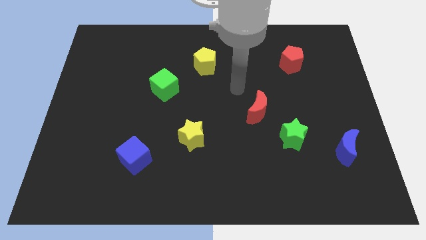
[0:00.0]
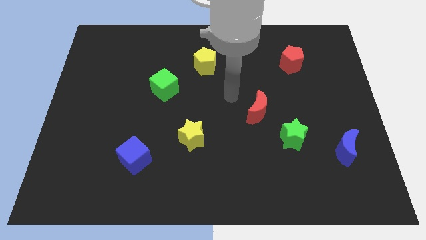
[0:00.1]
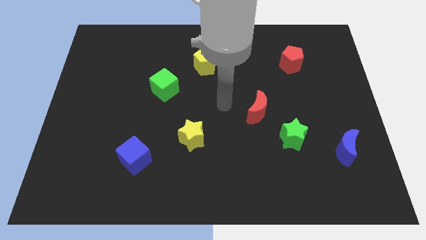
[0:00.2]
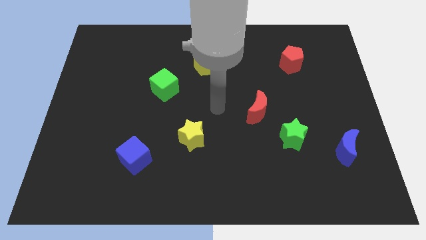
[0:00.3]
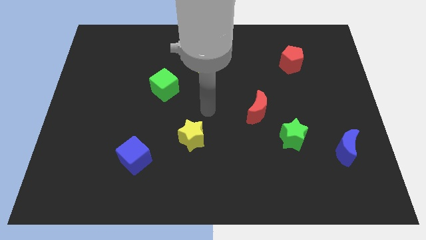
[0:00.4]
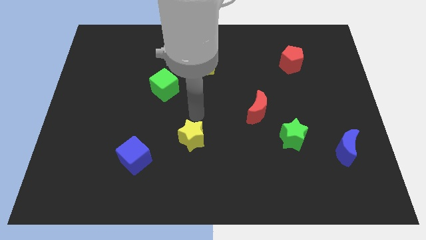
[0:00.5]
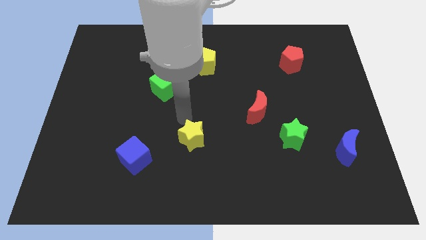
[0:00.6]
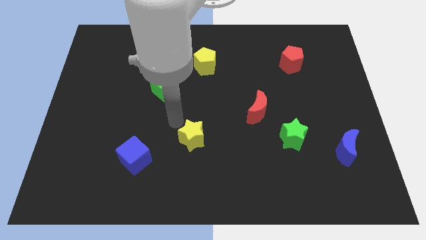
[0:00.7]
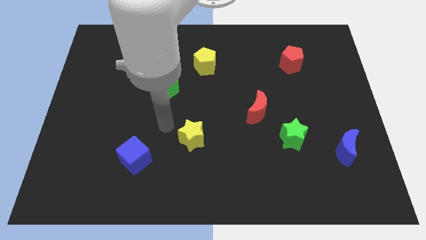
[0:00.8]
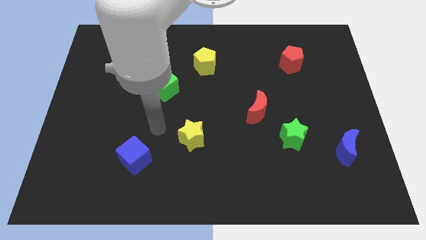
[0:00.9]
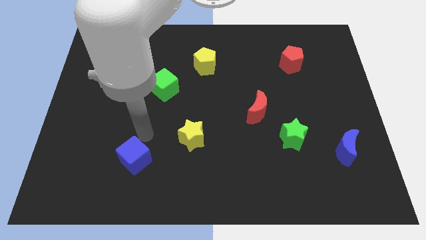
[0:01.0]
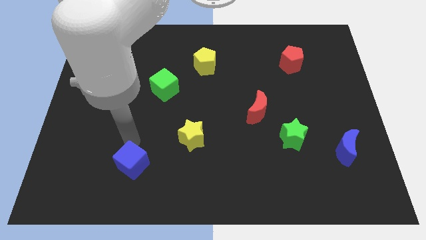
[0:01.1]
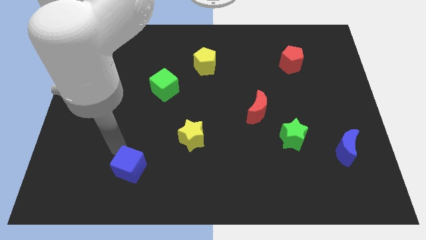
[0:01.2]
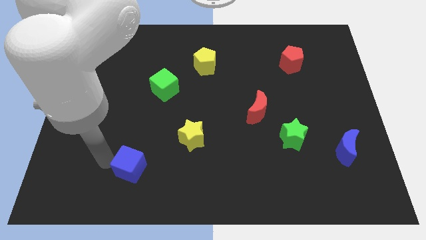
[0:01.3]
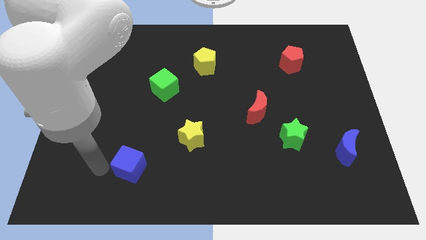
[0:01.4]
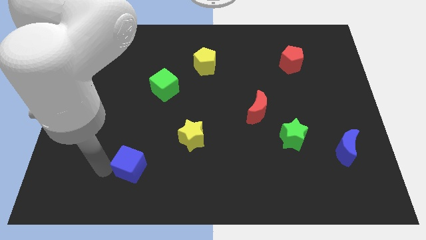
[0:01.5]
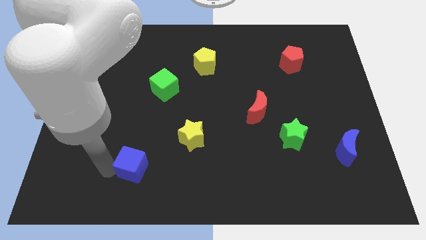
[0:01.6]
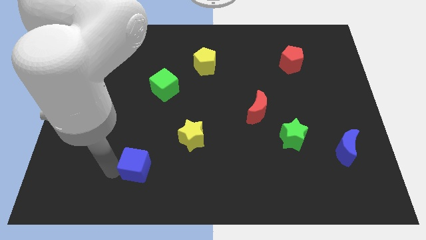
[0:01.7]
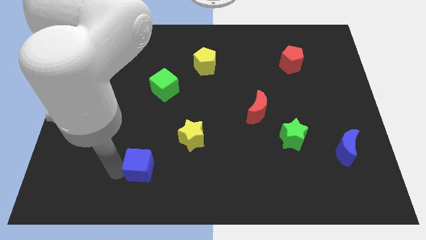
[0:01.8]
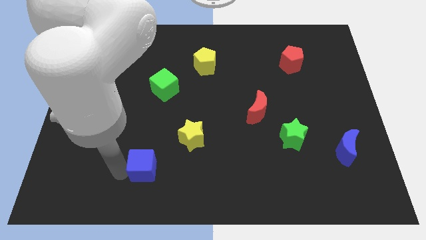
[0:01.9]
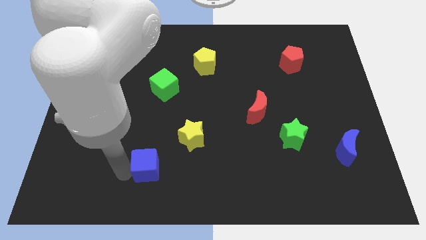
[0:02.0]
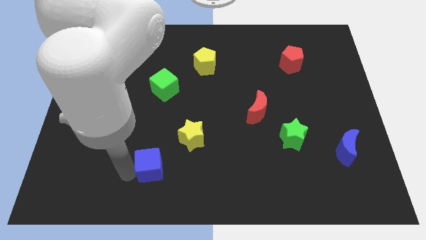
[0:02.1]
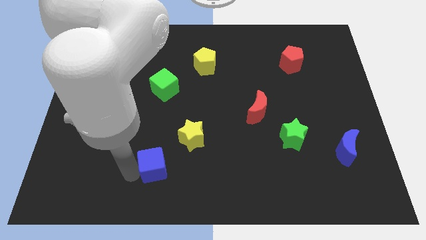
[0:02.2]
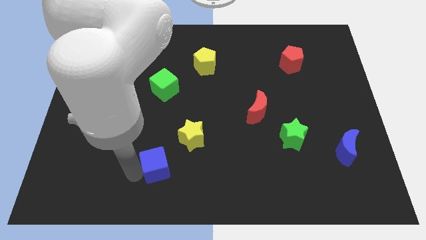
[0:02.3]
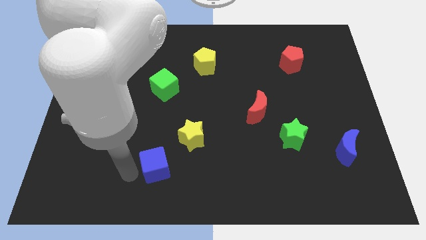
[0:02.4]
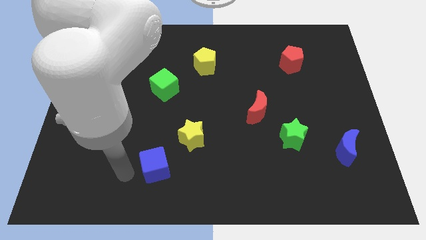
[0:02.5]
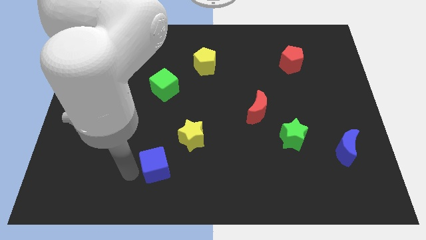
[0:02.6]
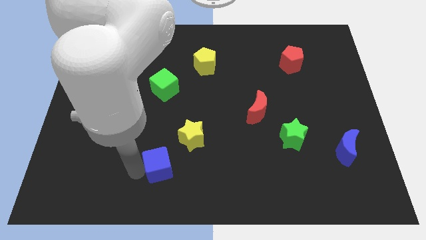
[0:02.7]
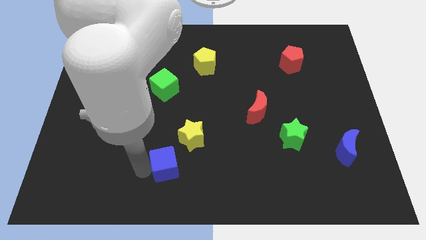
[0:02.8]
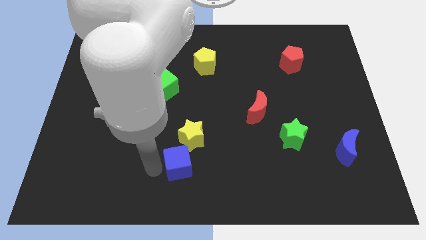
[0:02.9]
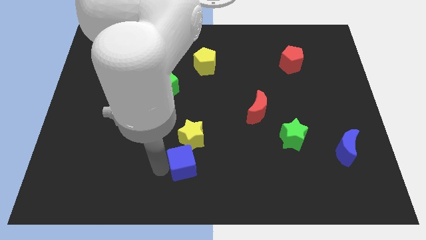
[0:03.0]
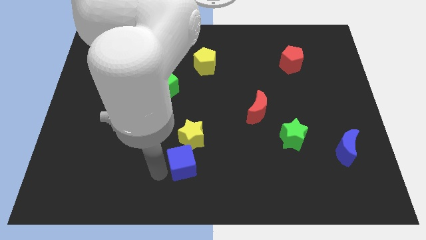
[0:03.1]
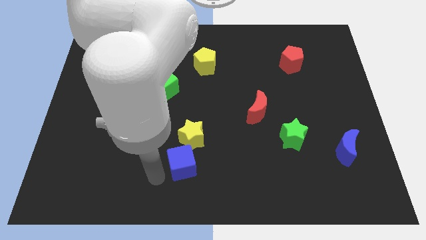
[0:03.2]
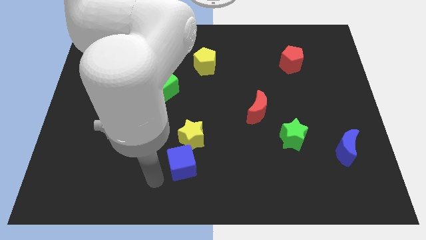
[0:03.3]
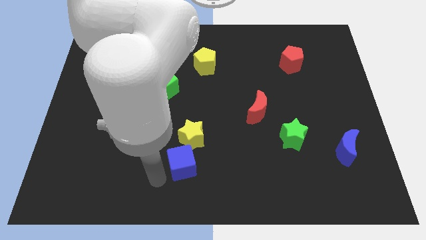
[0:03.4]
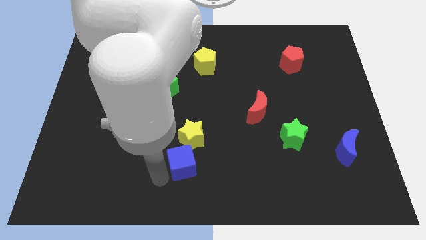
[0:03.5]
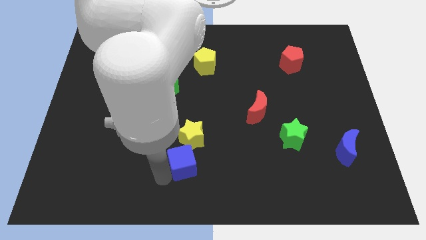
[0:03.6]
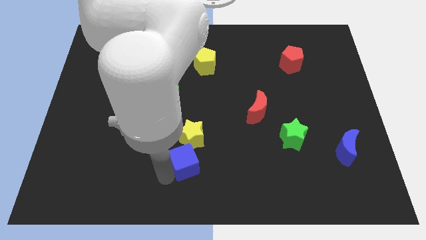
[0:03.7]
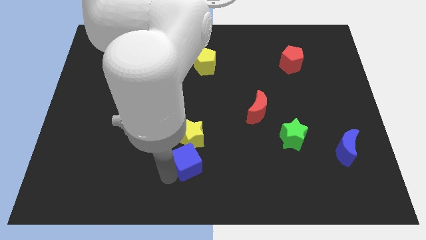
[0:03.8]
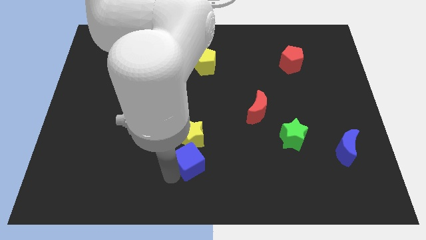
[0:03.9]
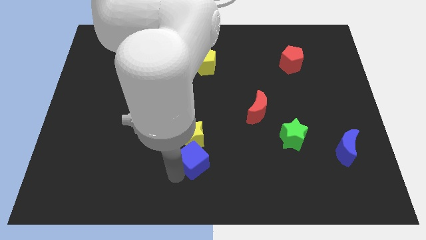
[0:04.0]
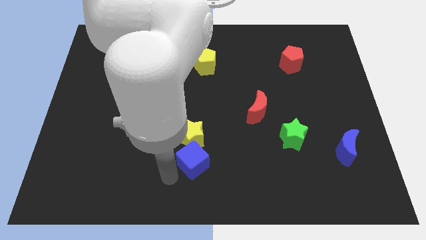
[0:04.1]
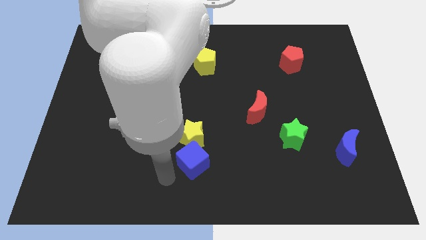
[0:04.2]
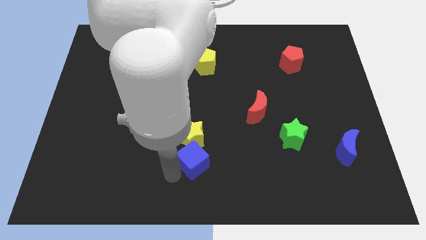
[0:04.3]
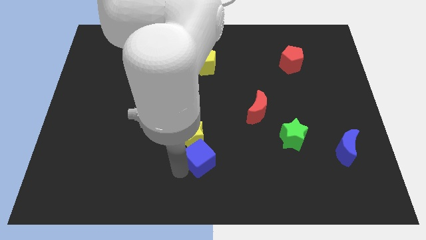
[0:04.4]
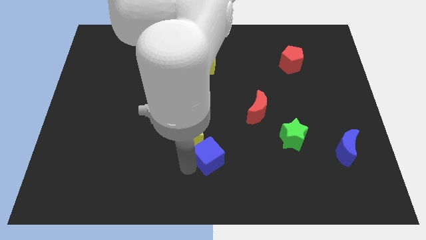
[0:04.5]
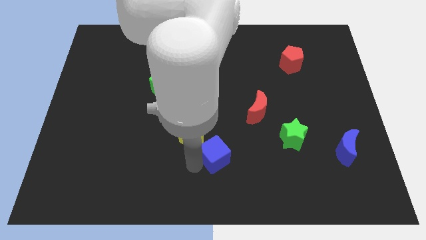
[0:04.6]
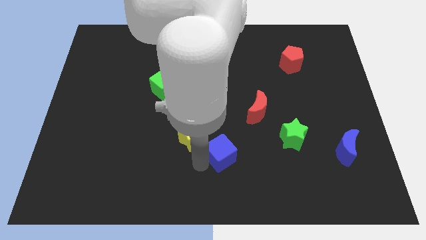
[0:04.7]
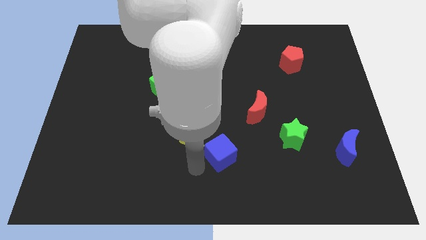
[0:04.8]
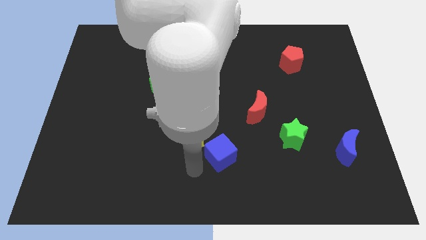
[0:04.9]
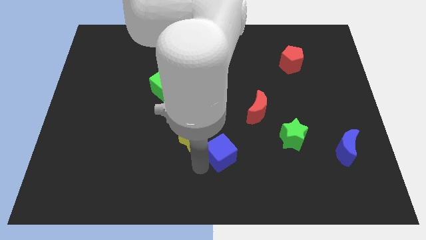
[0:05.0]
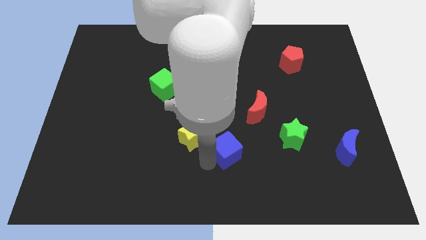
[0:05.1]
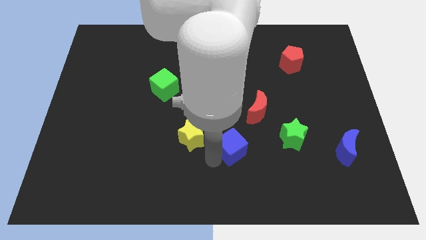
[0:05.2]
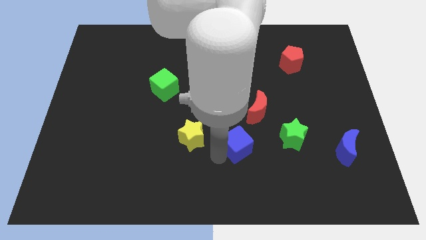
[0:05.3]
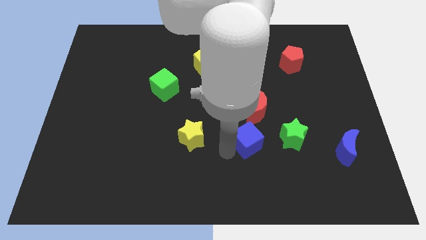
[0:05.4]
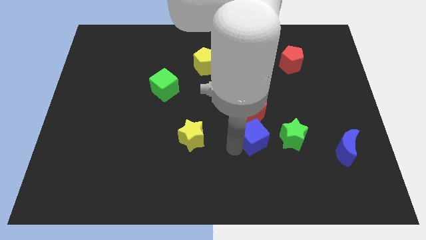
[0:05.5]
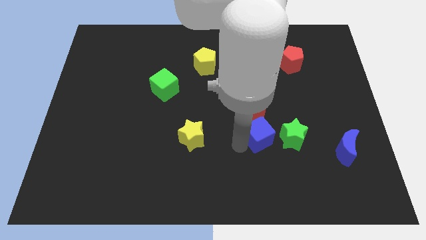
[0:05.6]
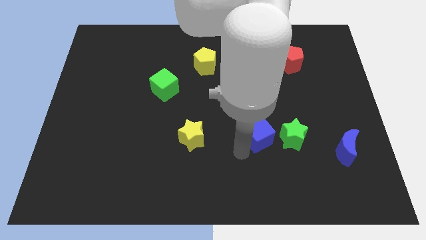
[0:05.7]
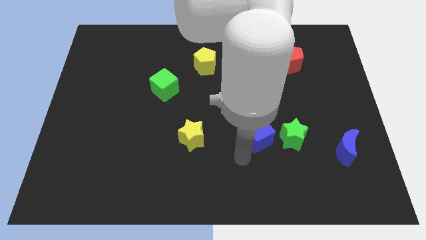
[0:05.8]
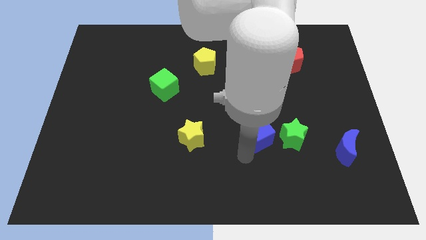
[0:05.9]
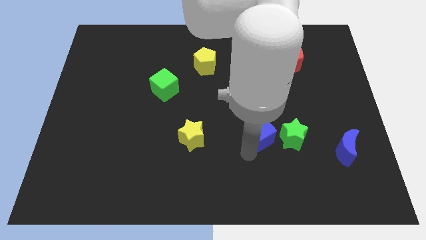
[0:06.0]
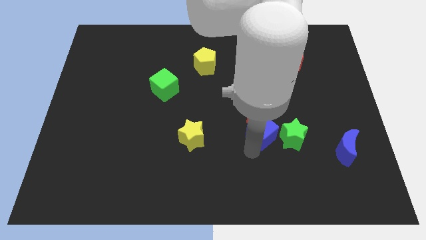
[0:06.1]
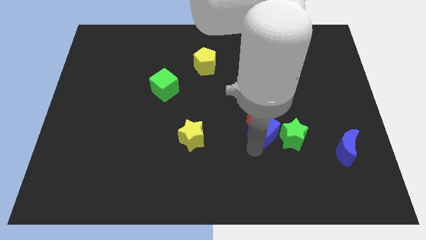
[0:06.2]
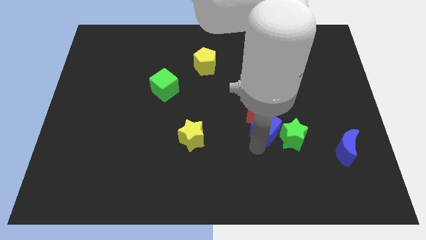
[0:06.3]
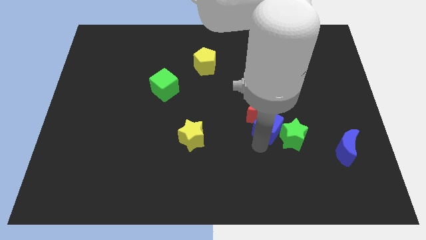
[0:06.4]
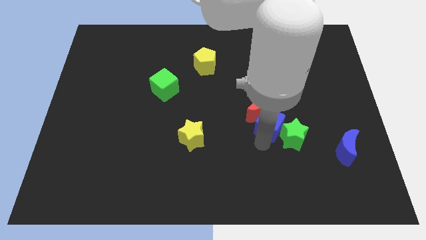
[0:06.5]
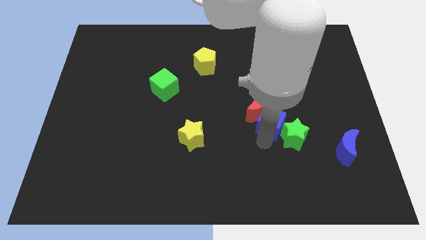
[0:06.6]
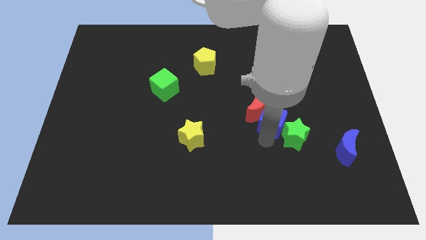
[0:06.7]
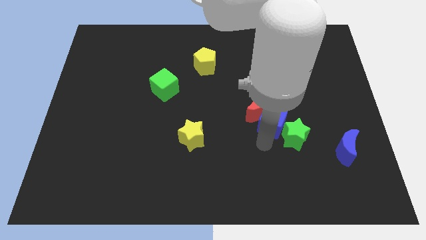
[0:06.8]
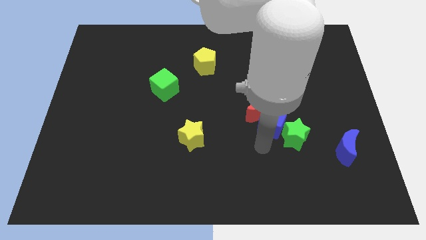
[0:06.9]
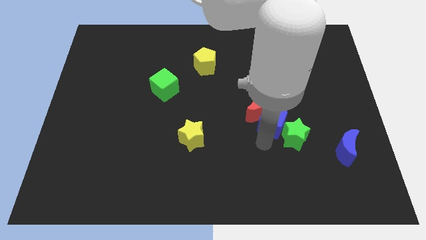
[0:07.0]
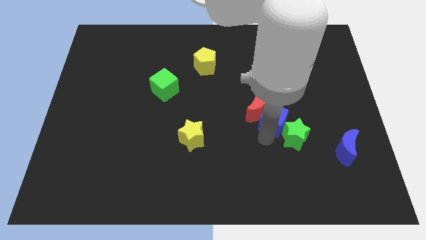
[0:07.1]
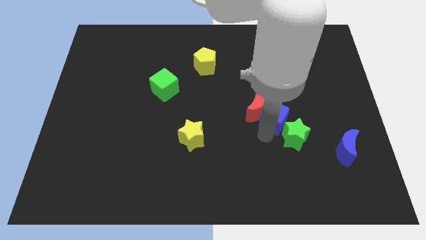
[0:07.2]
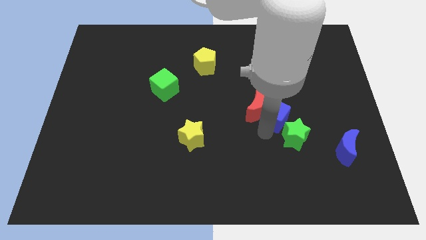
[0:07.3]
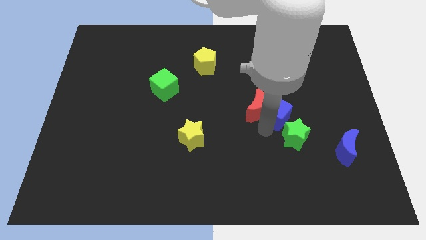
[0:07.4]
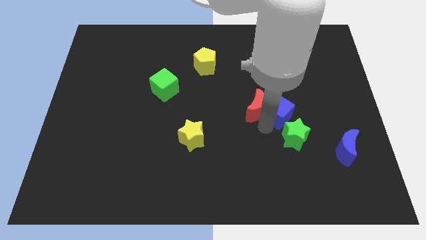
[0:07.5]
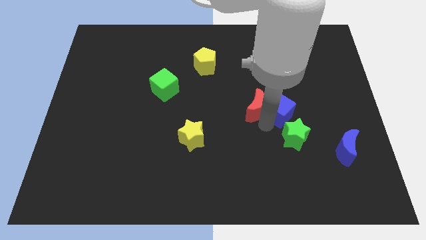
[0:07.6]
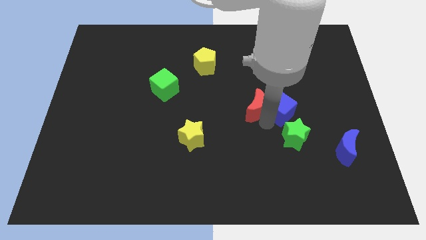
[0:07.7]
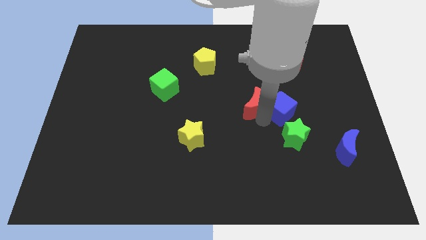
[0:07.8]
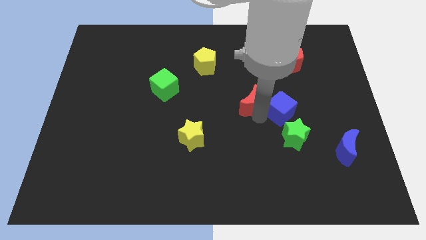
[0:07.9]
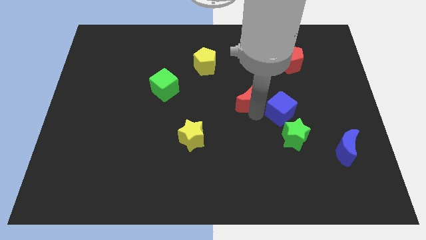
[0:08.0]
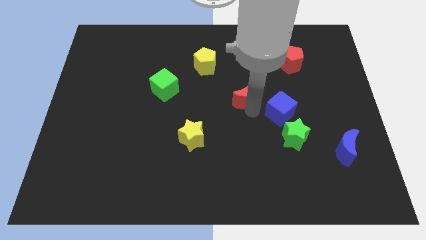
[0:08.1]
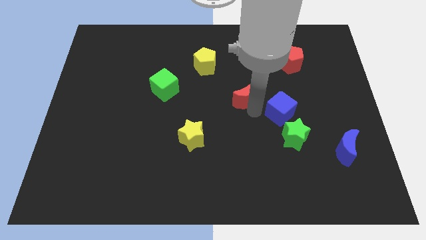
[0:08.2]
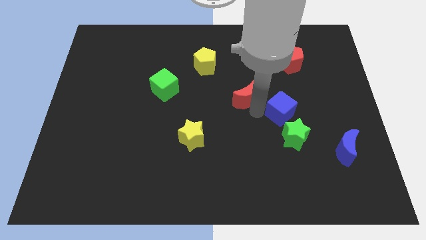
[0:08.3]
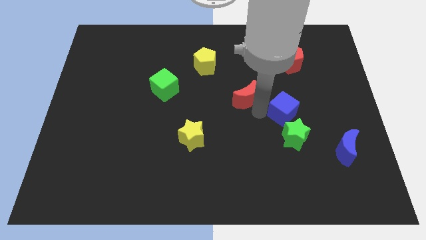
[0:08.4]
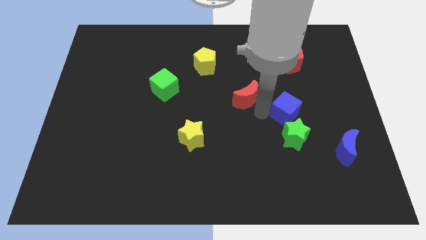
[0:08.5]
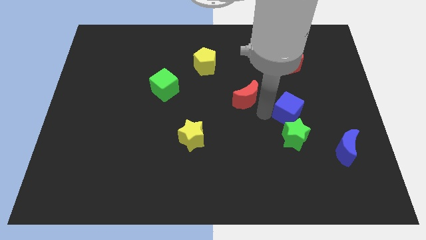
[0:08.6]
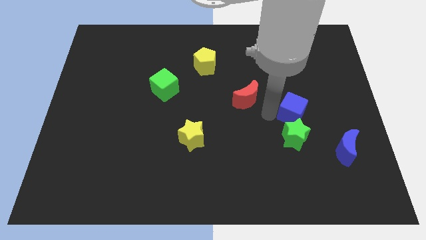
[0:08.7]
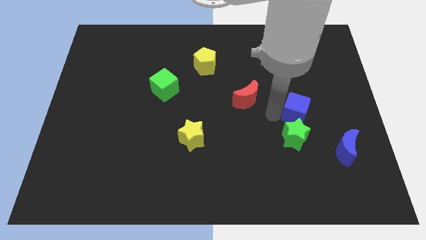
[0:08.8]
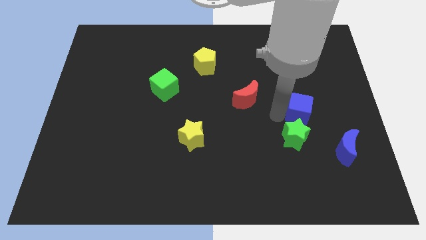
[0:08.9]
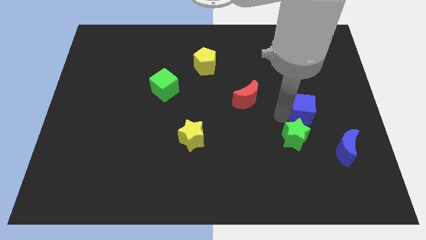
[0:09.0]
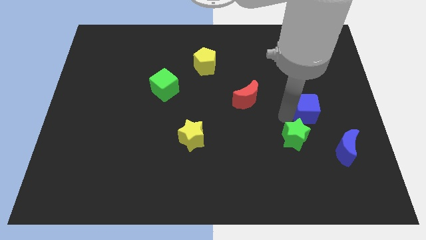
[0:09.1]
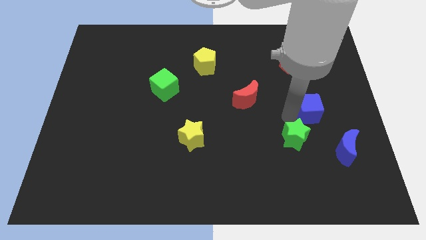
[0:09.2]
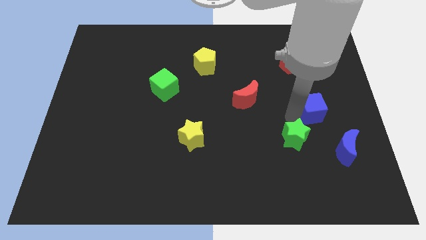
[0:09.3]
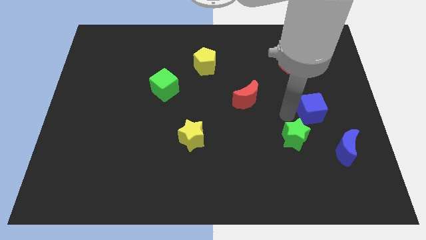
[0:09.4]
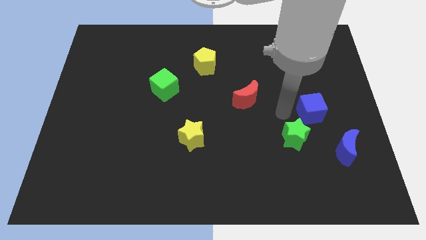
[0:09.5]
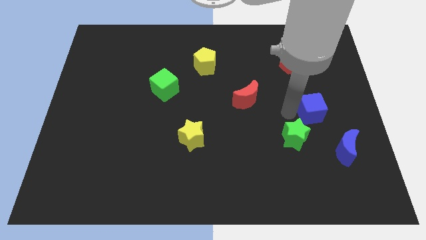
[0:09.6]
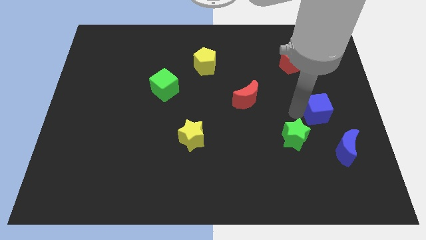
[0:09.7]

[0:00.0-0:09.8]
push the blue cube to the top side of the blue moon
